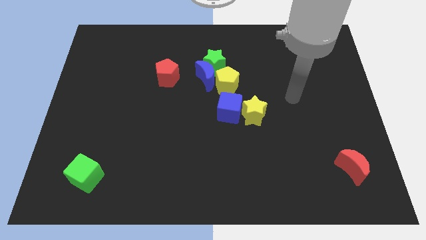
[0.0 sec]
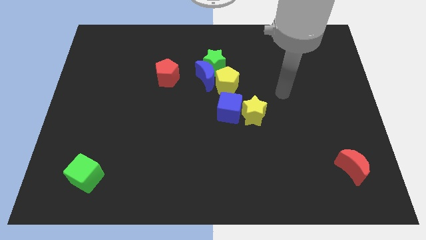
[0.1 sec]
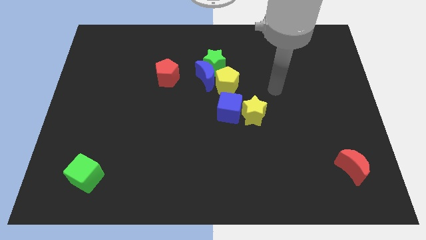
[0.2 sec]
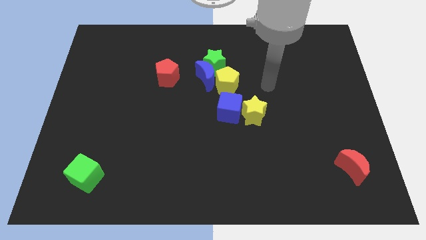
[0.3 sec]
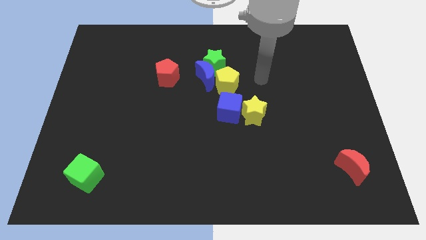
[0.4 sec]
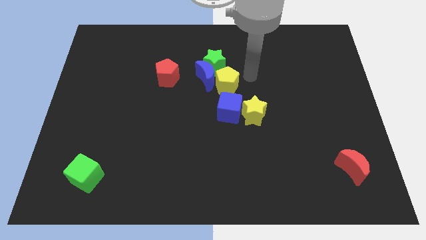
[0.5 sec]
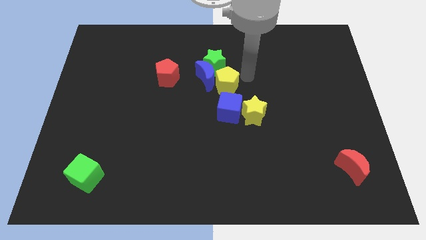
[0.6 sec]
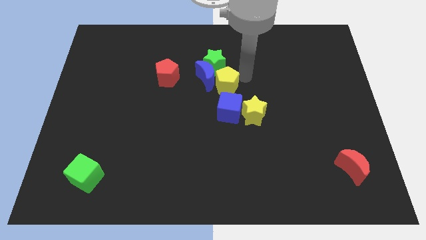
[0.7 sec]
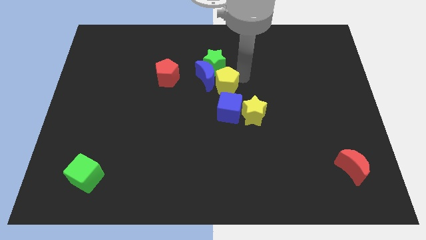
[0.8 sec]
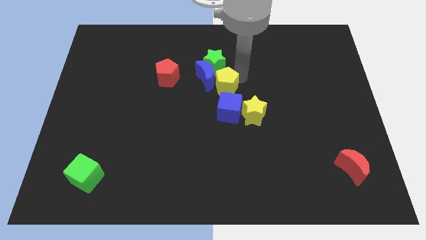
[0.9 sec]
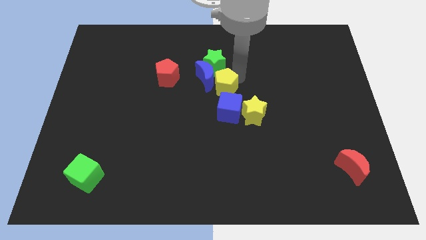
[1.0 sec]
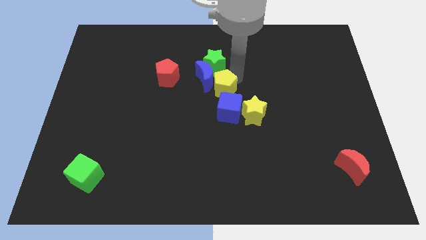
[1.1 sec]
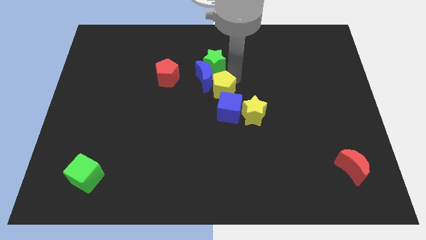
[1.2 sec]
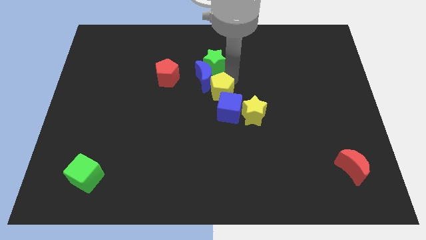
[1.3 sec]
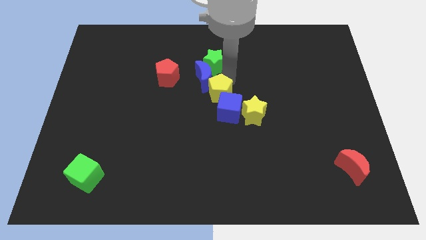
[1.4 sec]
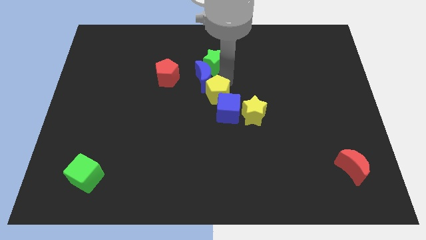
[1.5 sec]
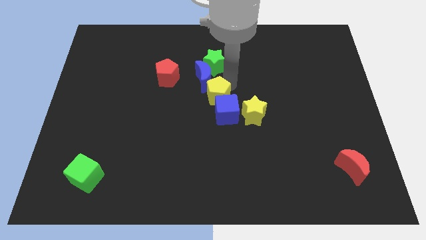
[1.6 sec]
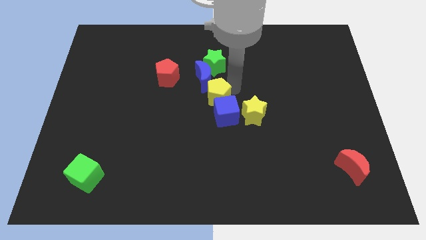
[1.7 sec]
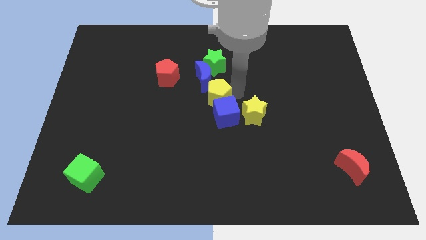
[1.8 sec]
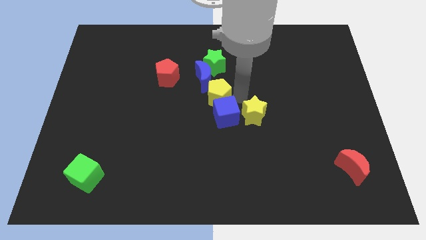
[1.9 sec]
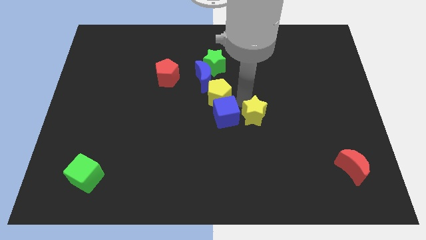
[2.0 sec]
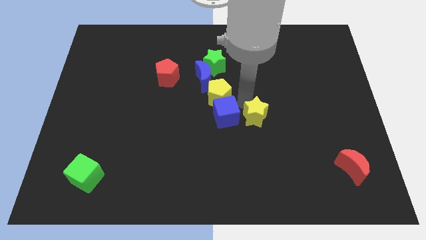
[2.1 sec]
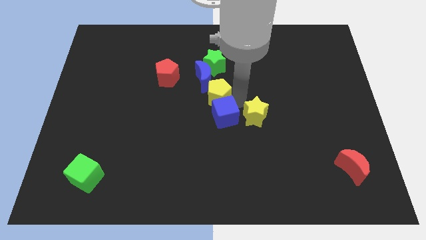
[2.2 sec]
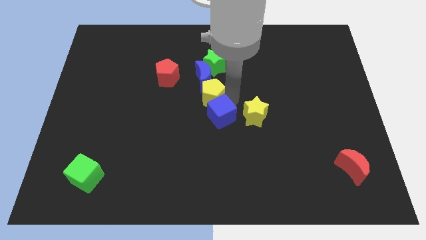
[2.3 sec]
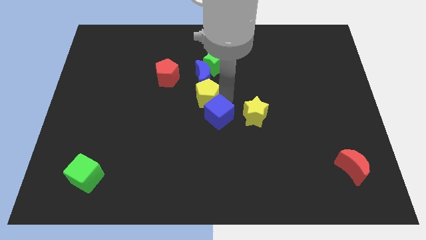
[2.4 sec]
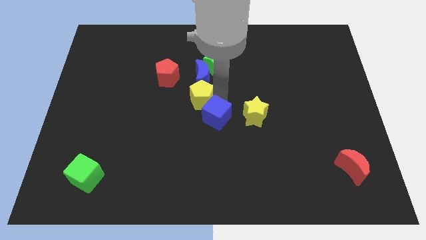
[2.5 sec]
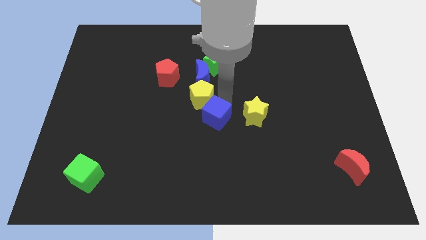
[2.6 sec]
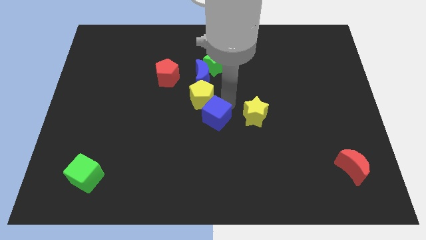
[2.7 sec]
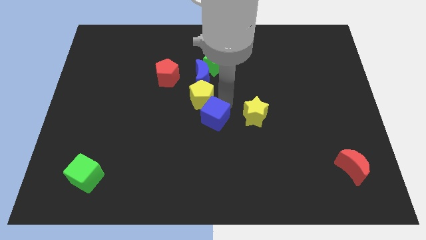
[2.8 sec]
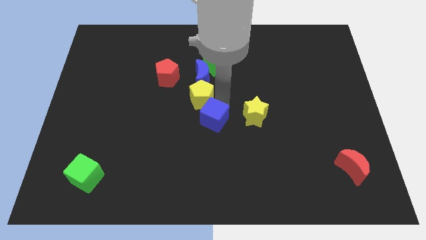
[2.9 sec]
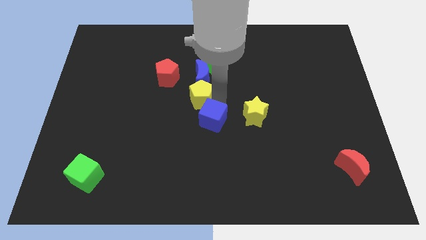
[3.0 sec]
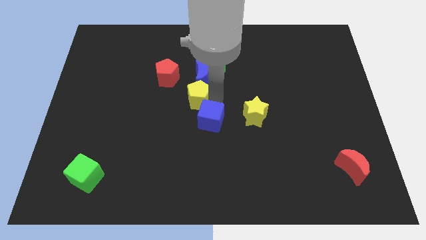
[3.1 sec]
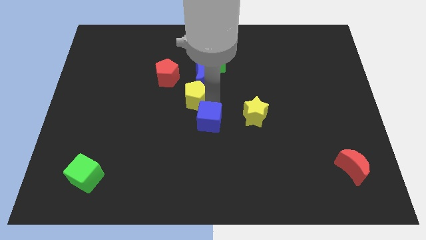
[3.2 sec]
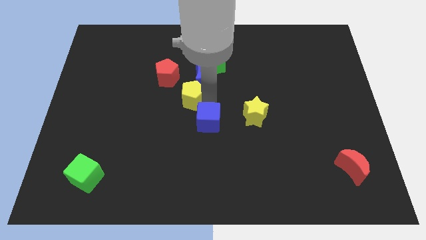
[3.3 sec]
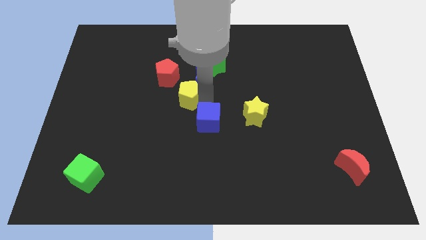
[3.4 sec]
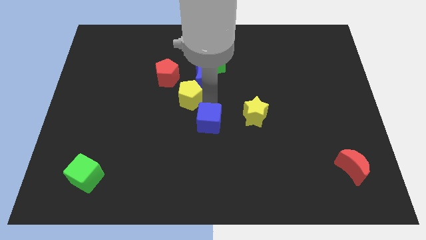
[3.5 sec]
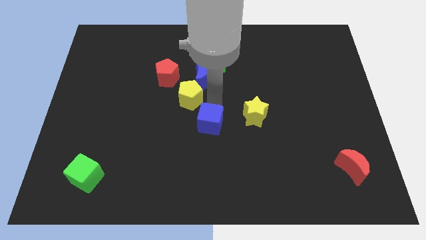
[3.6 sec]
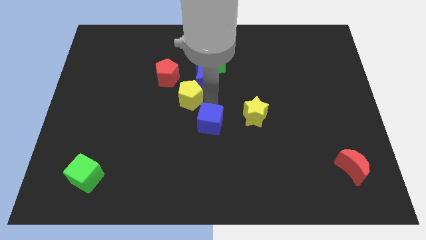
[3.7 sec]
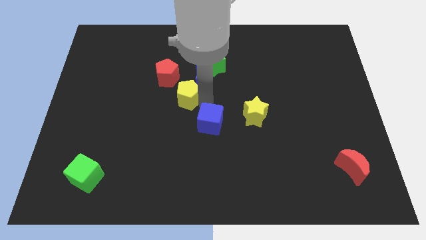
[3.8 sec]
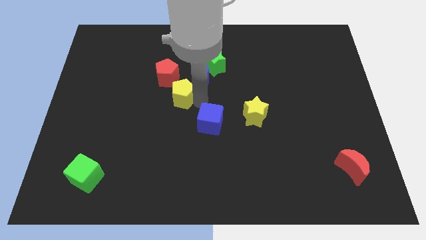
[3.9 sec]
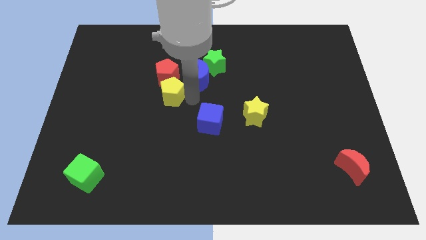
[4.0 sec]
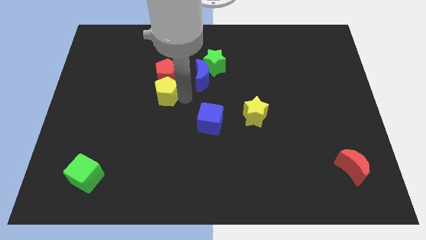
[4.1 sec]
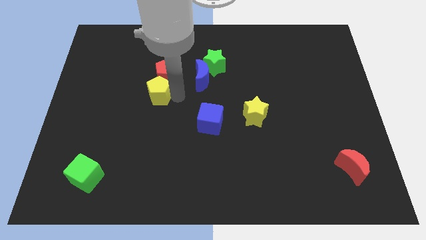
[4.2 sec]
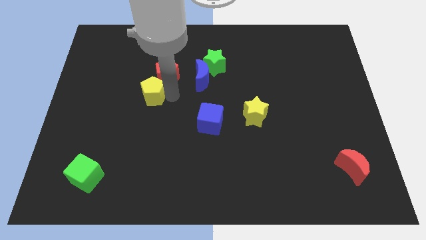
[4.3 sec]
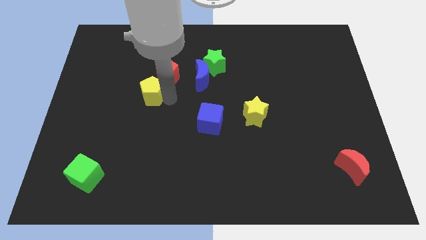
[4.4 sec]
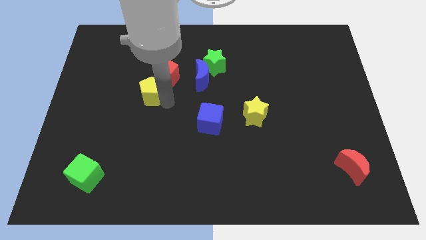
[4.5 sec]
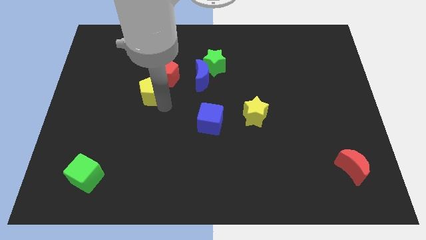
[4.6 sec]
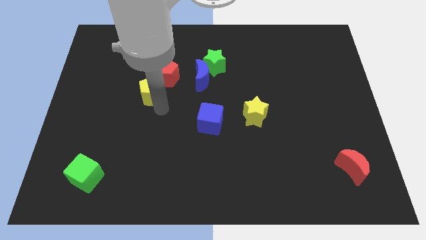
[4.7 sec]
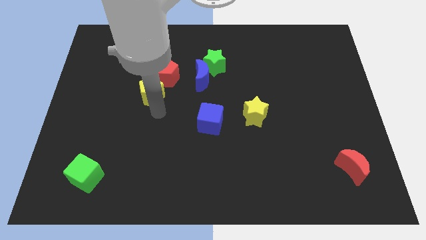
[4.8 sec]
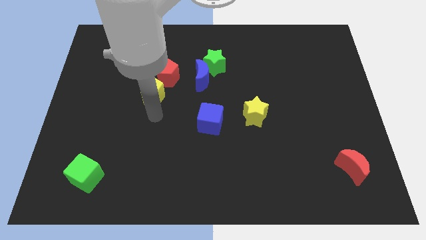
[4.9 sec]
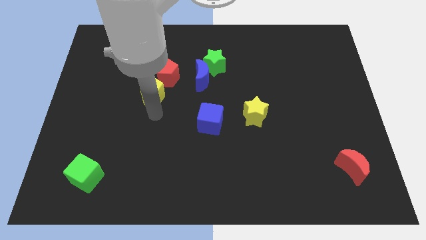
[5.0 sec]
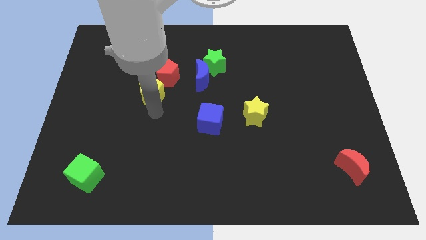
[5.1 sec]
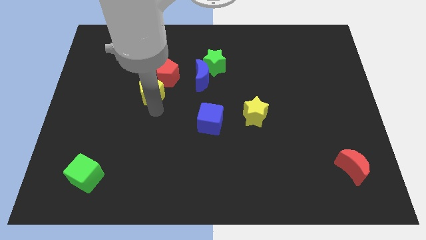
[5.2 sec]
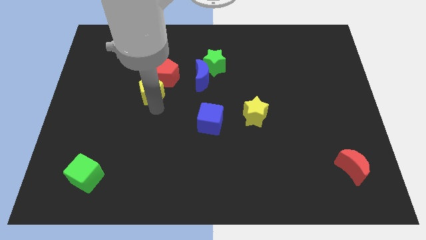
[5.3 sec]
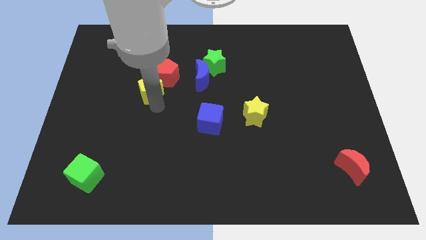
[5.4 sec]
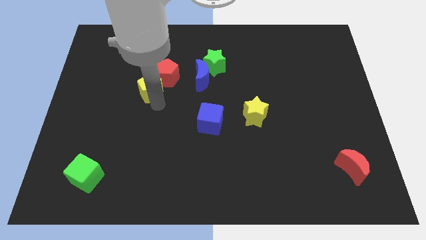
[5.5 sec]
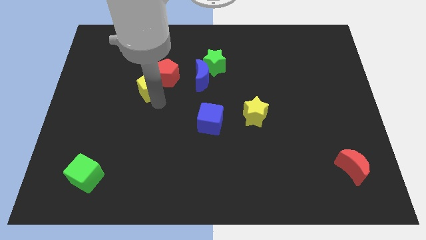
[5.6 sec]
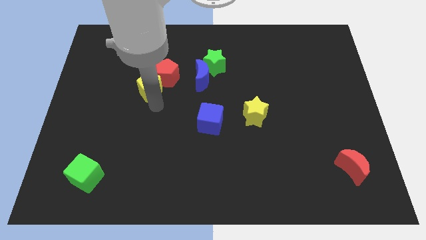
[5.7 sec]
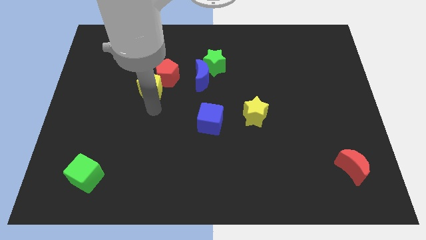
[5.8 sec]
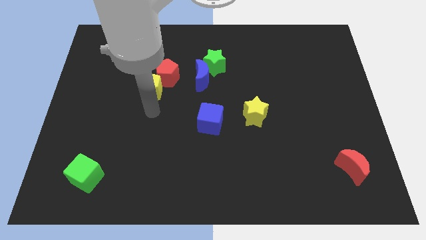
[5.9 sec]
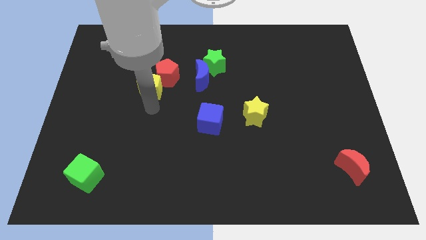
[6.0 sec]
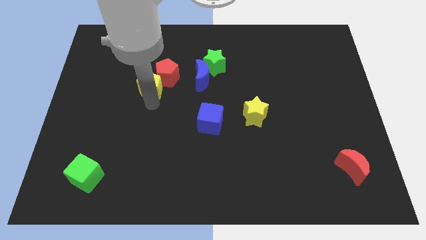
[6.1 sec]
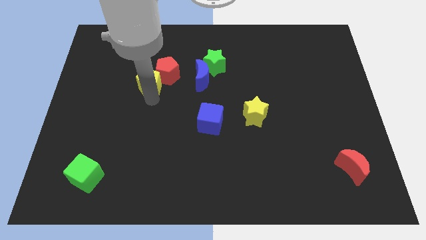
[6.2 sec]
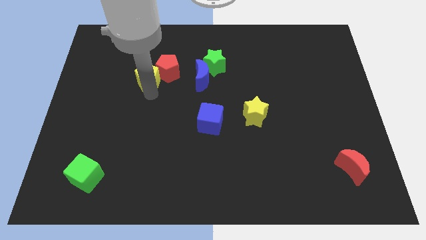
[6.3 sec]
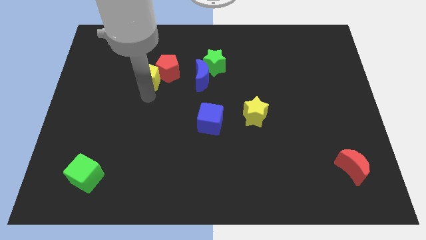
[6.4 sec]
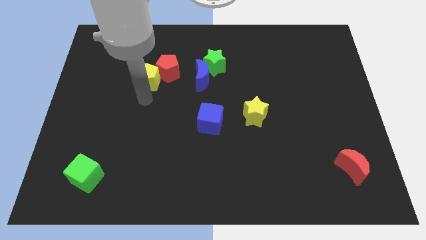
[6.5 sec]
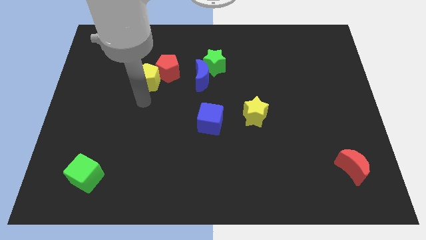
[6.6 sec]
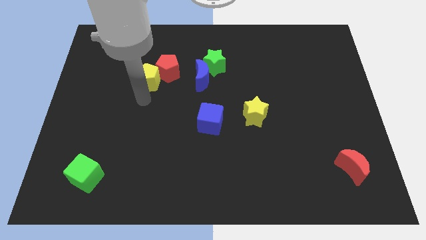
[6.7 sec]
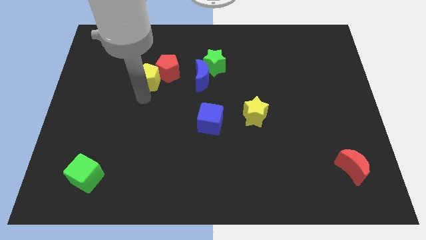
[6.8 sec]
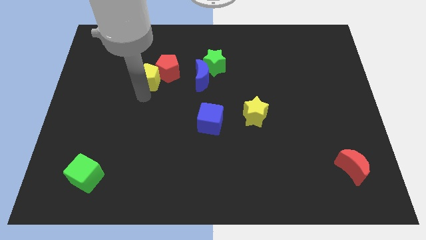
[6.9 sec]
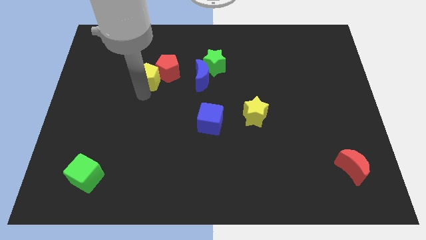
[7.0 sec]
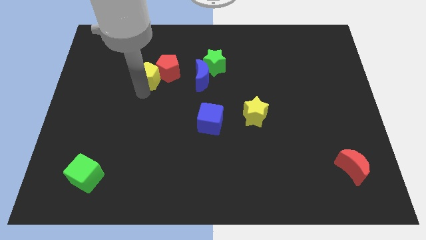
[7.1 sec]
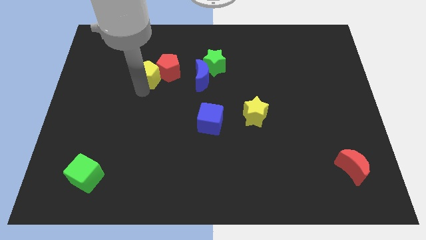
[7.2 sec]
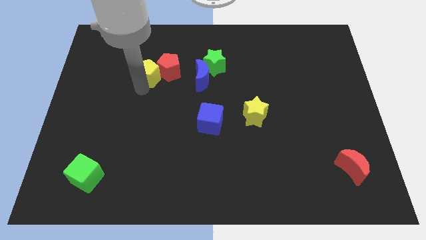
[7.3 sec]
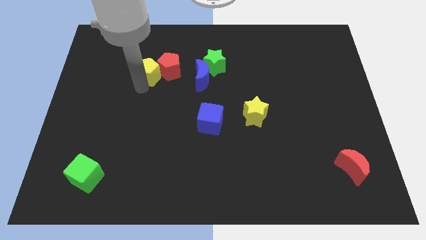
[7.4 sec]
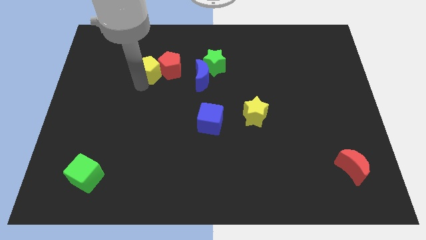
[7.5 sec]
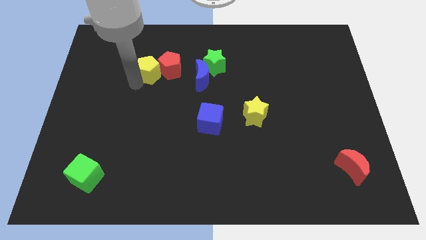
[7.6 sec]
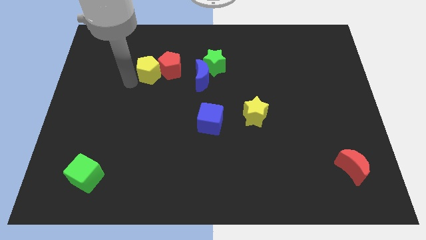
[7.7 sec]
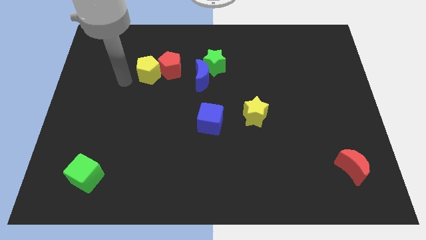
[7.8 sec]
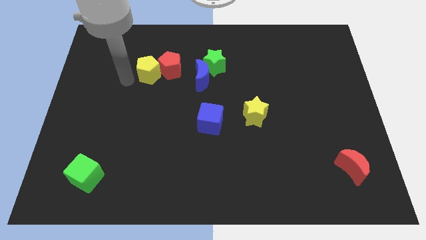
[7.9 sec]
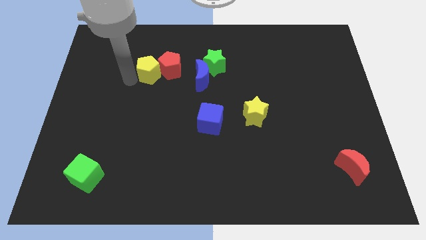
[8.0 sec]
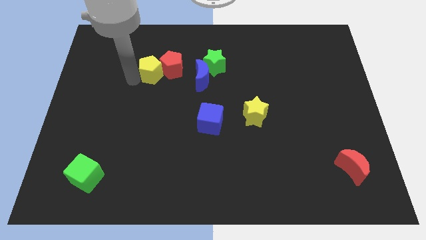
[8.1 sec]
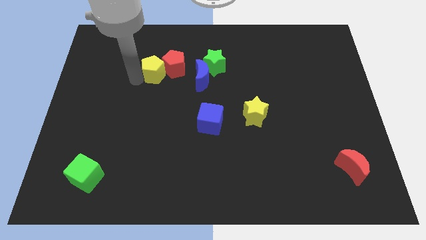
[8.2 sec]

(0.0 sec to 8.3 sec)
slide the yellow pentagon to the left of the green star

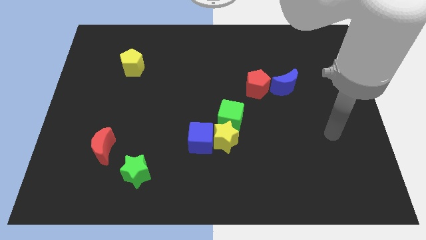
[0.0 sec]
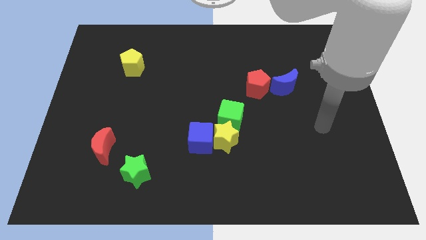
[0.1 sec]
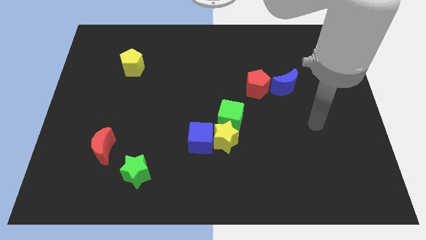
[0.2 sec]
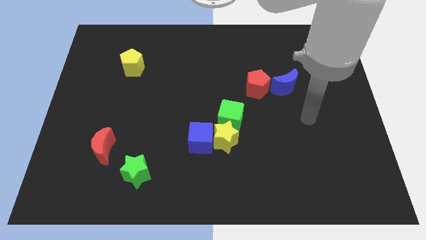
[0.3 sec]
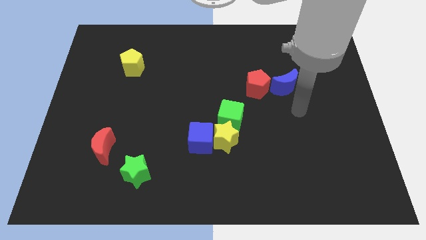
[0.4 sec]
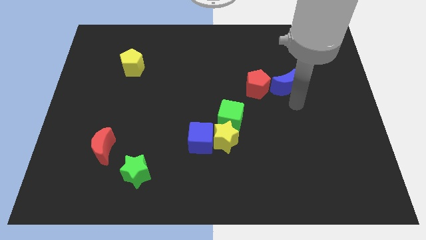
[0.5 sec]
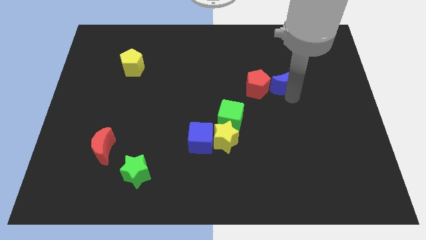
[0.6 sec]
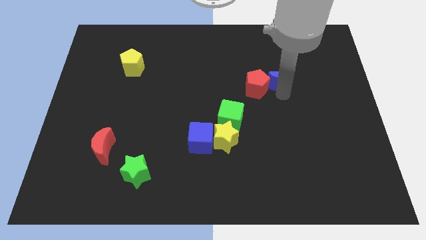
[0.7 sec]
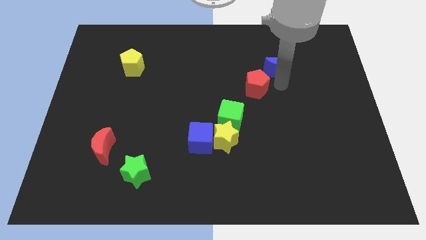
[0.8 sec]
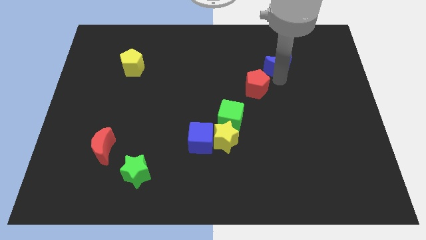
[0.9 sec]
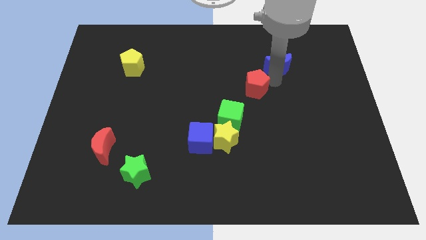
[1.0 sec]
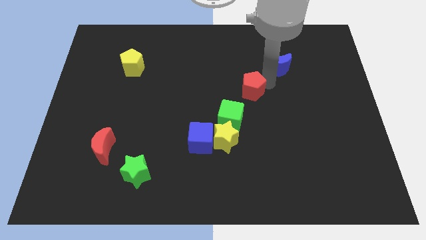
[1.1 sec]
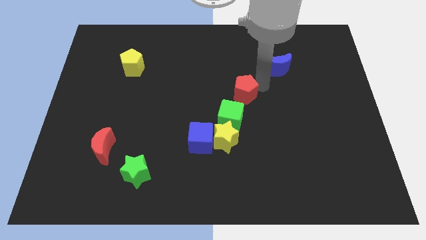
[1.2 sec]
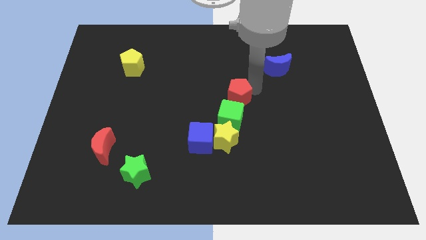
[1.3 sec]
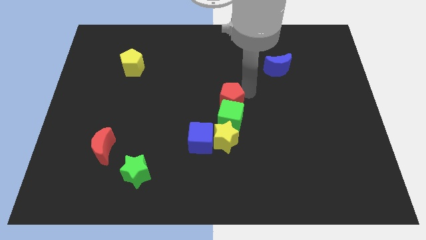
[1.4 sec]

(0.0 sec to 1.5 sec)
push the red pentagon to the top left side of the green cube
